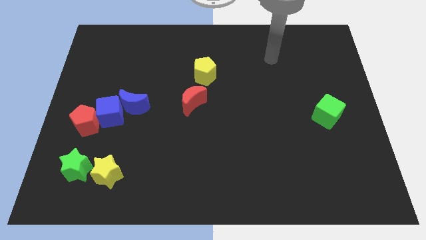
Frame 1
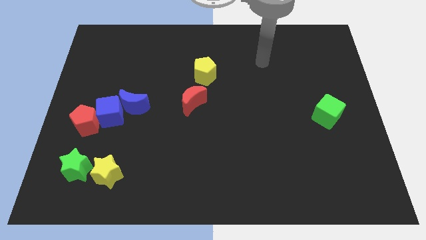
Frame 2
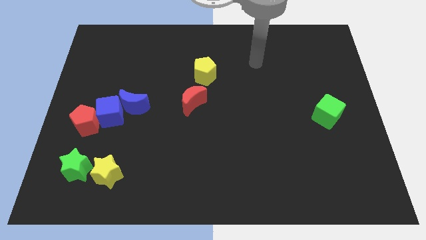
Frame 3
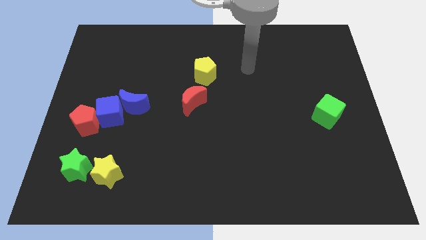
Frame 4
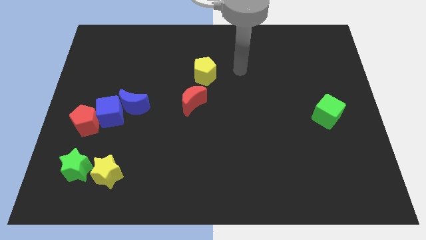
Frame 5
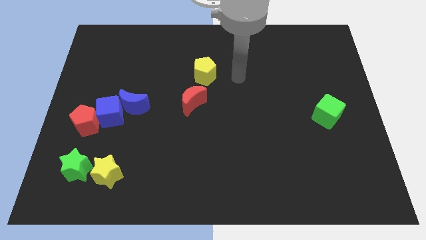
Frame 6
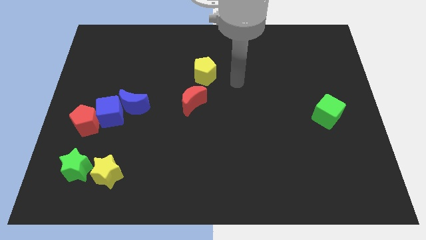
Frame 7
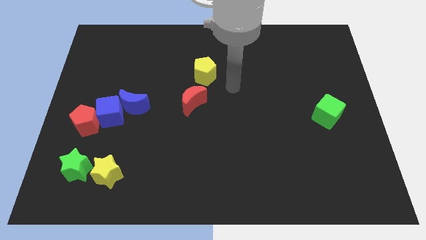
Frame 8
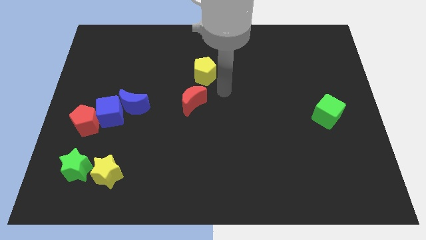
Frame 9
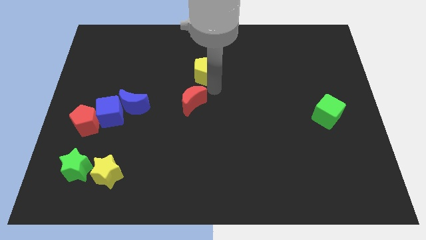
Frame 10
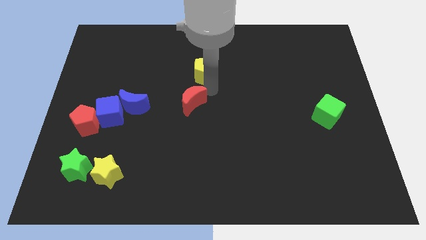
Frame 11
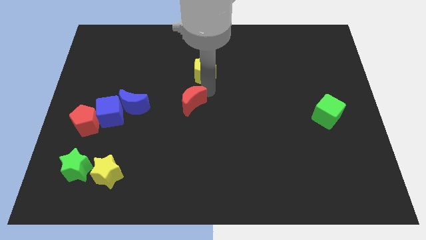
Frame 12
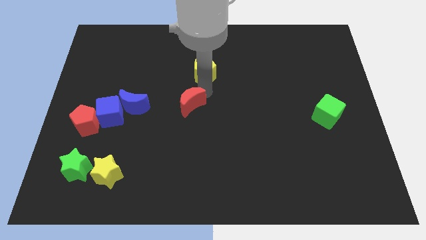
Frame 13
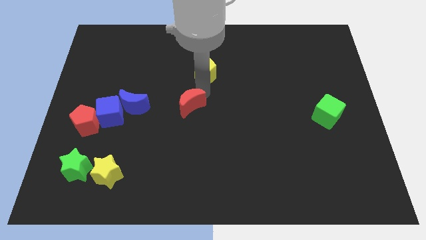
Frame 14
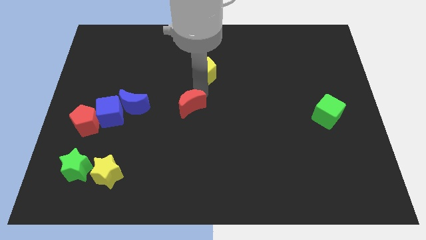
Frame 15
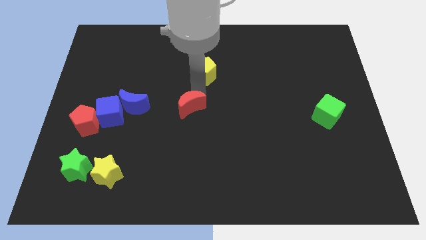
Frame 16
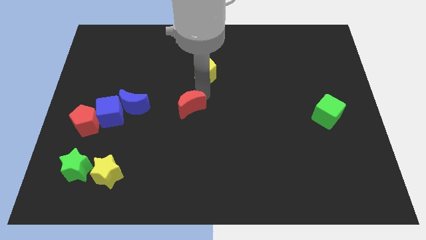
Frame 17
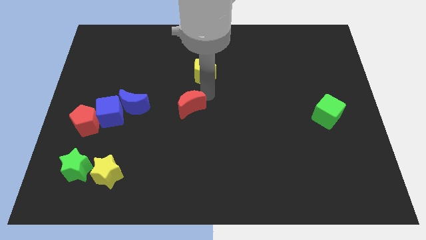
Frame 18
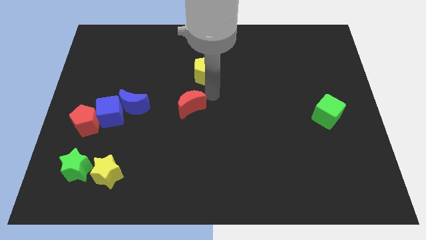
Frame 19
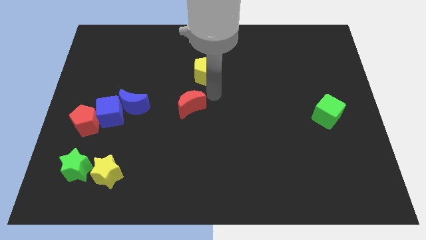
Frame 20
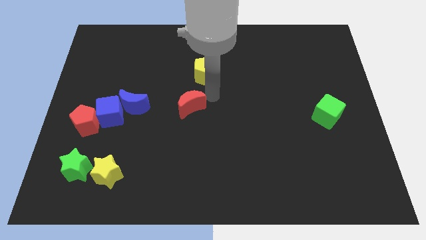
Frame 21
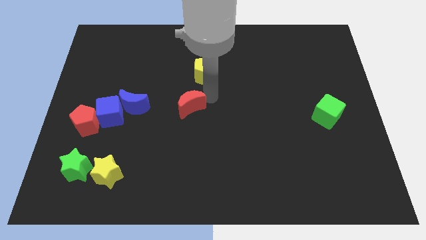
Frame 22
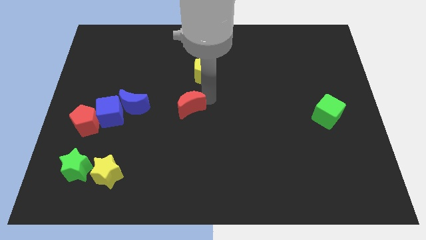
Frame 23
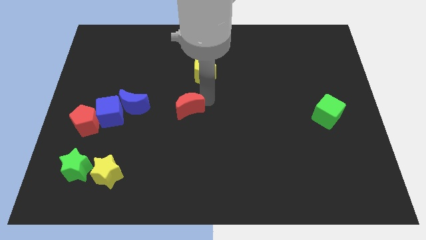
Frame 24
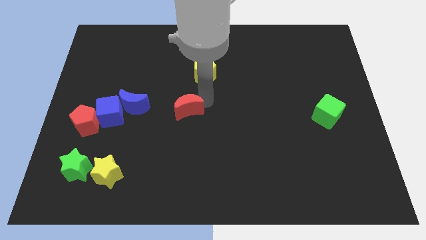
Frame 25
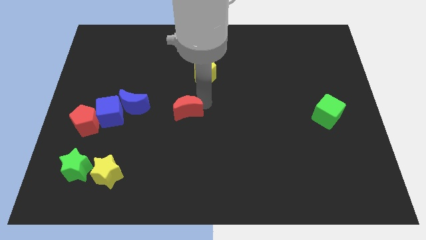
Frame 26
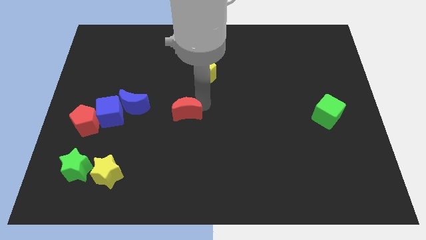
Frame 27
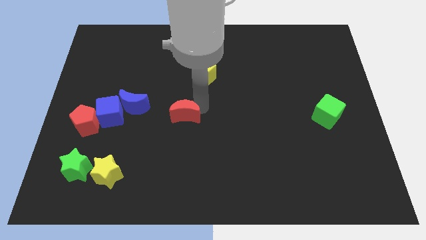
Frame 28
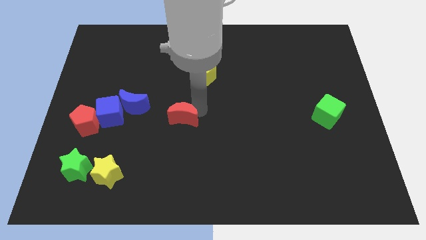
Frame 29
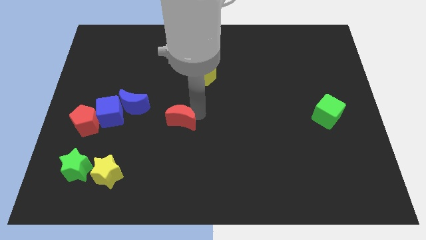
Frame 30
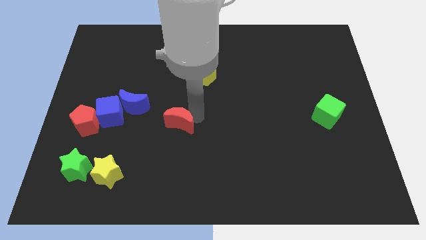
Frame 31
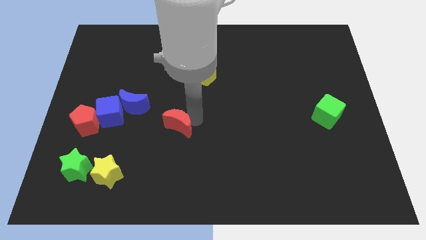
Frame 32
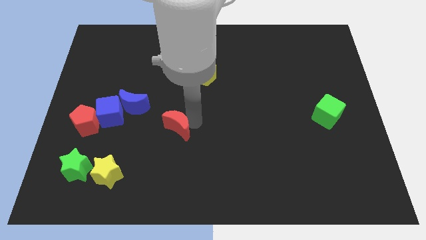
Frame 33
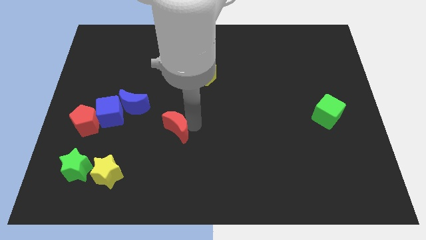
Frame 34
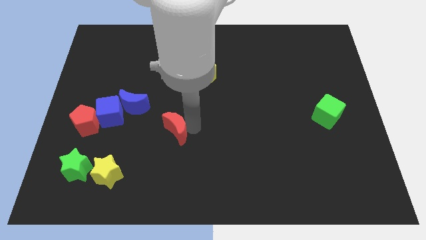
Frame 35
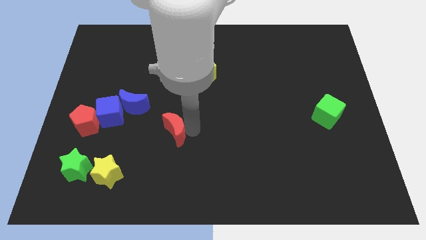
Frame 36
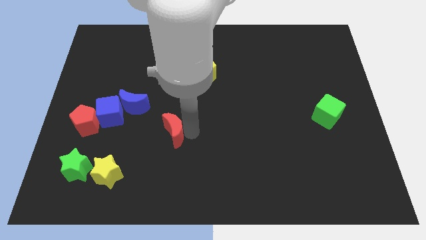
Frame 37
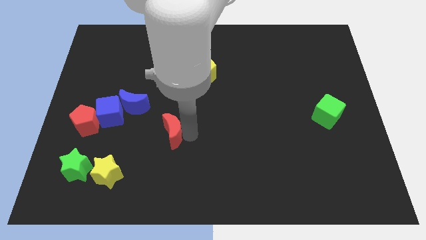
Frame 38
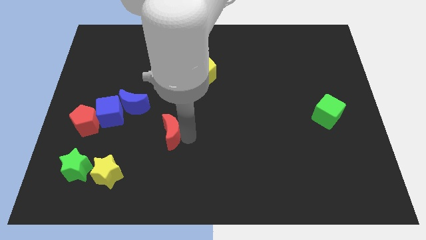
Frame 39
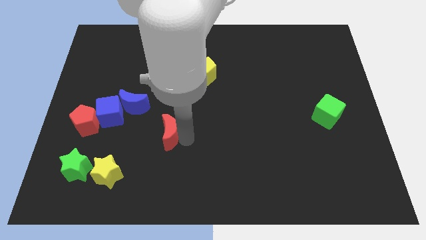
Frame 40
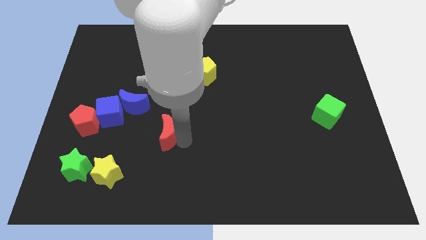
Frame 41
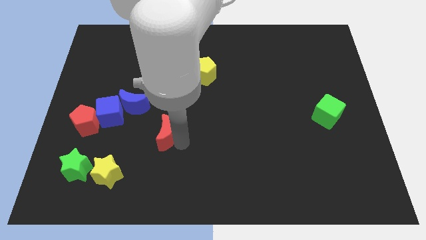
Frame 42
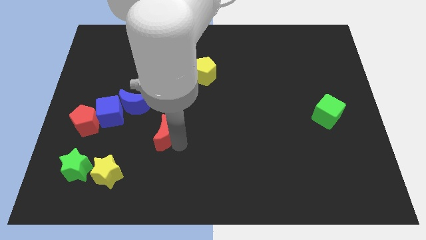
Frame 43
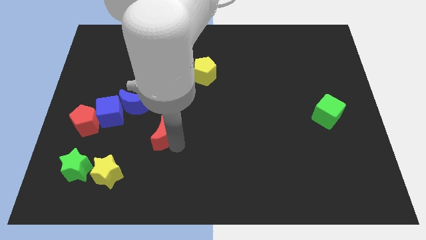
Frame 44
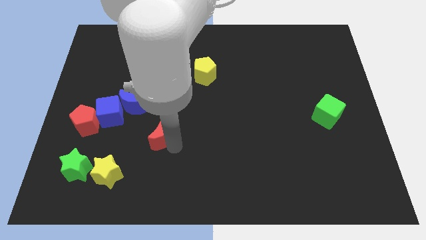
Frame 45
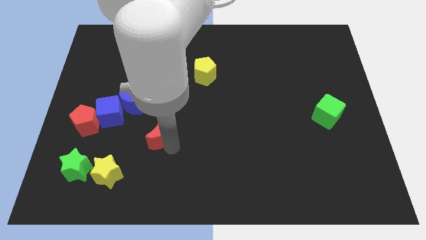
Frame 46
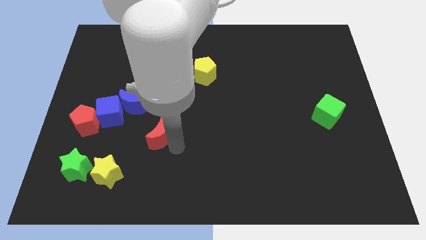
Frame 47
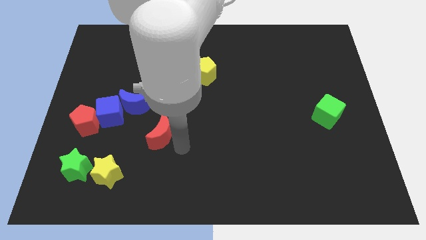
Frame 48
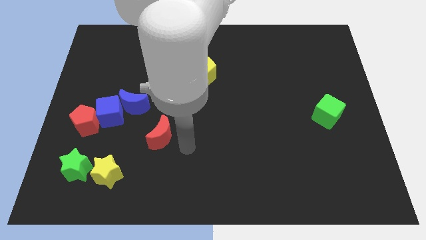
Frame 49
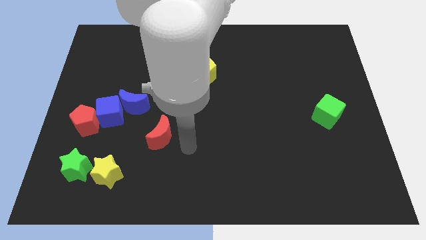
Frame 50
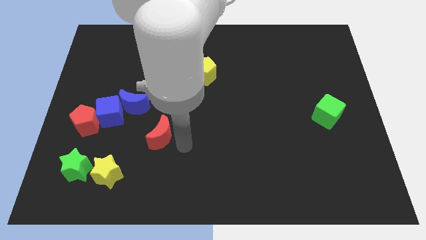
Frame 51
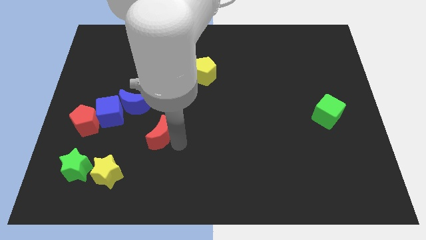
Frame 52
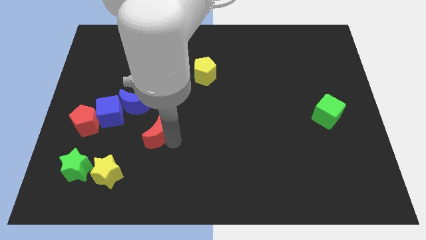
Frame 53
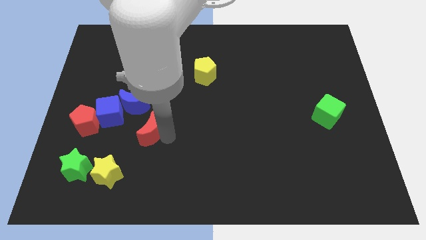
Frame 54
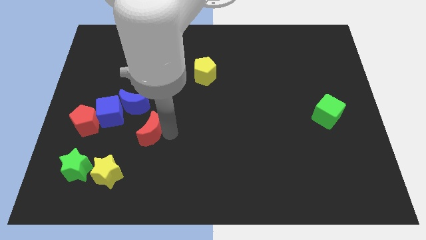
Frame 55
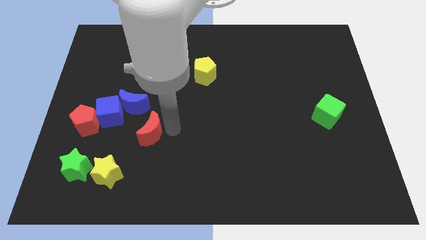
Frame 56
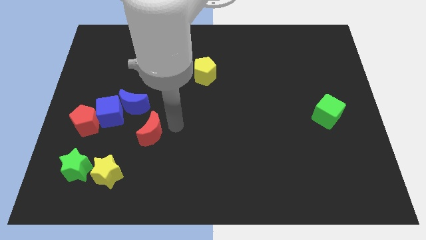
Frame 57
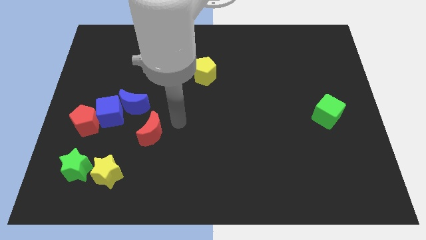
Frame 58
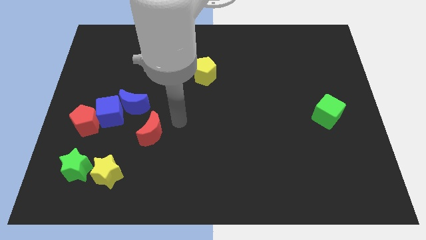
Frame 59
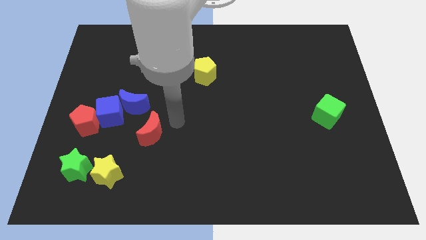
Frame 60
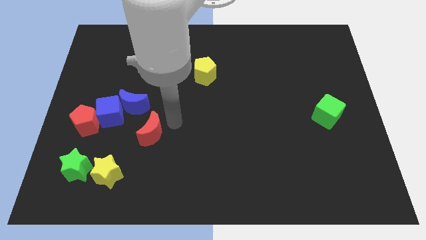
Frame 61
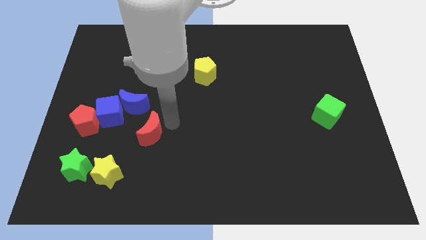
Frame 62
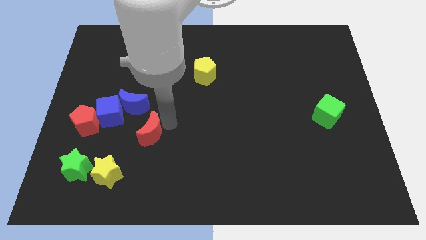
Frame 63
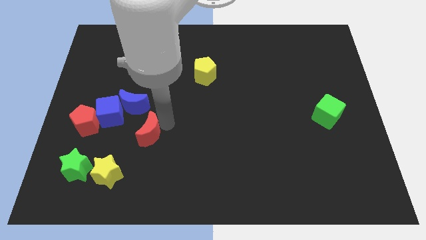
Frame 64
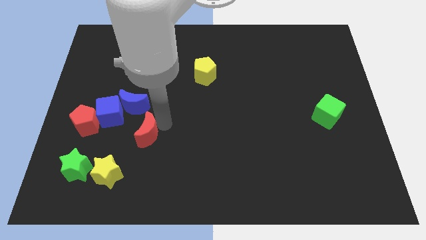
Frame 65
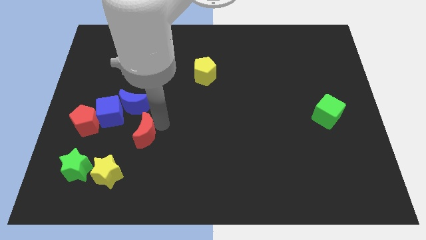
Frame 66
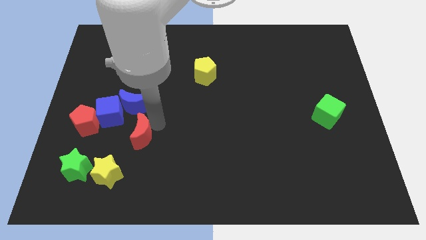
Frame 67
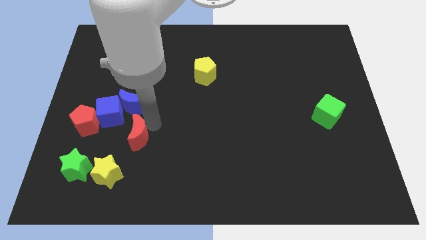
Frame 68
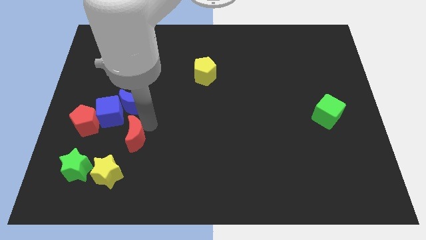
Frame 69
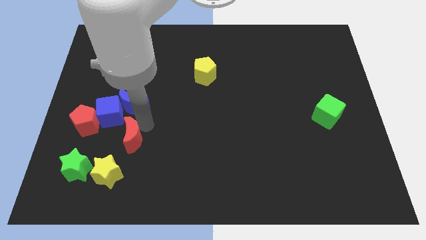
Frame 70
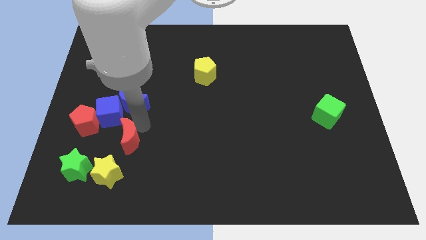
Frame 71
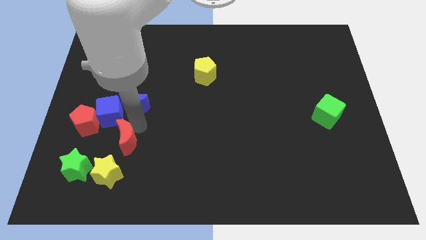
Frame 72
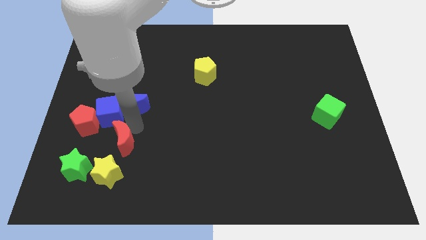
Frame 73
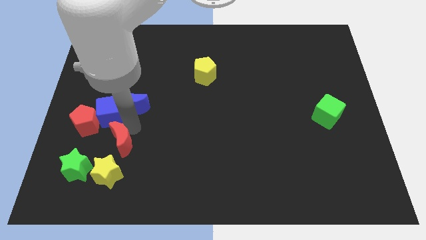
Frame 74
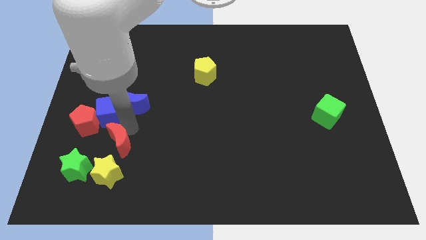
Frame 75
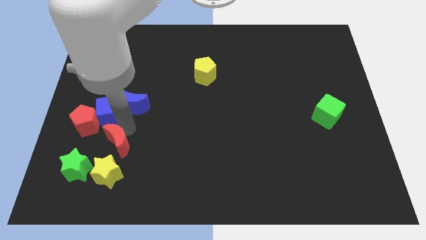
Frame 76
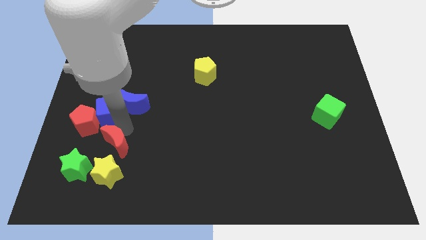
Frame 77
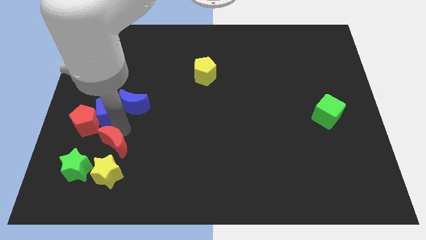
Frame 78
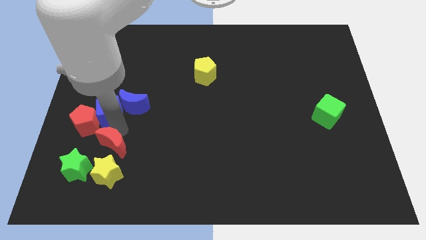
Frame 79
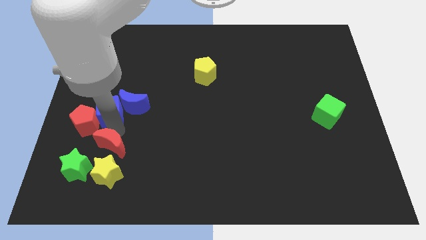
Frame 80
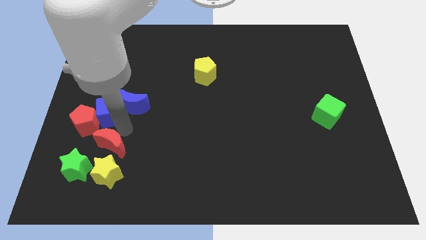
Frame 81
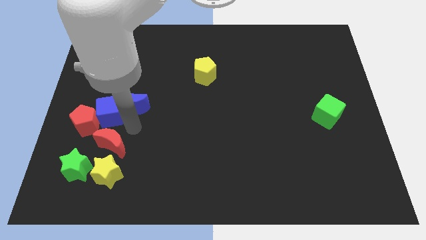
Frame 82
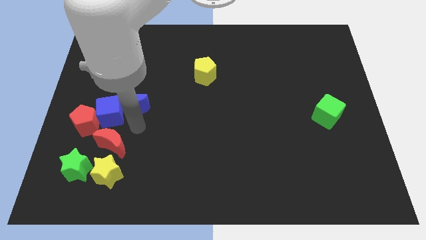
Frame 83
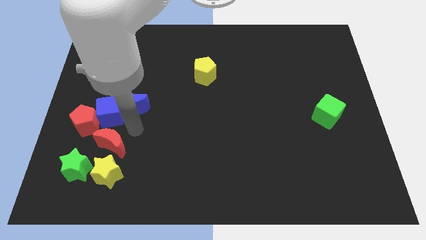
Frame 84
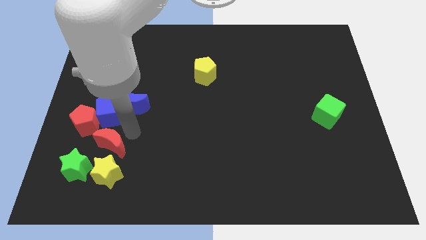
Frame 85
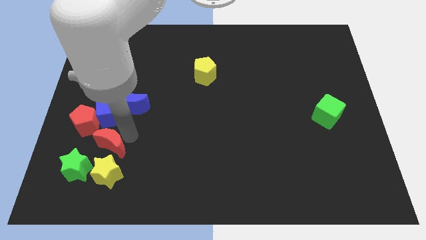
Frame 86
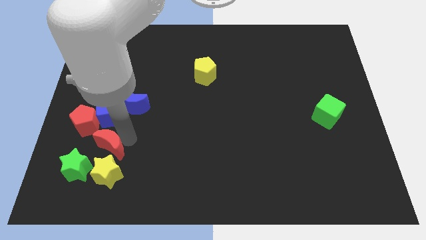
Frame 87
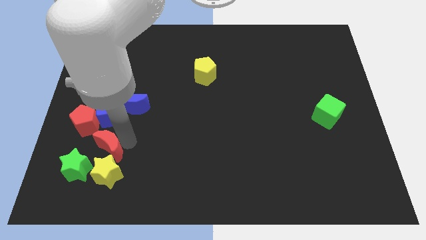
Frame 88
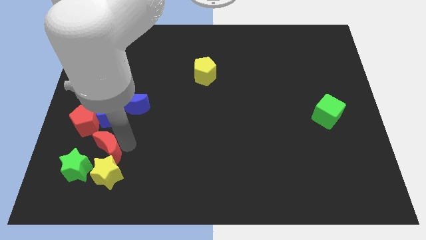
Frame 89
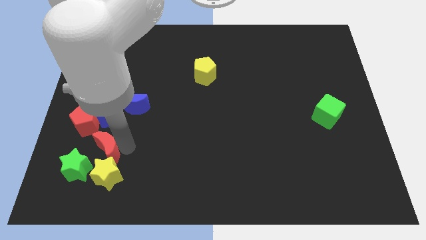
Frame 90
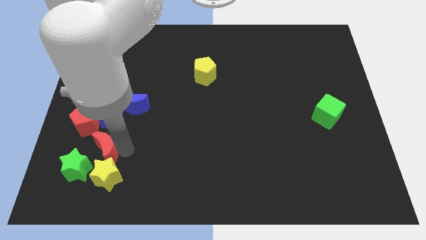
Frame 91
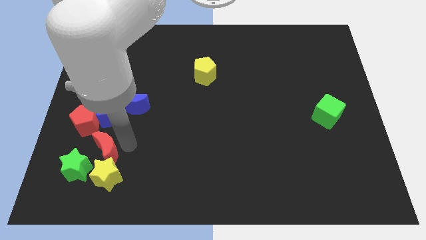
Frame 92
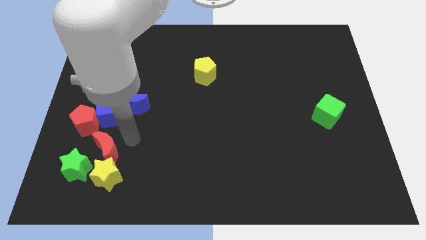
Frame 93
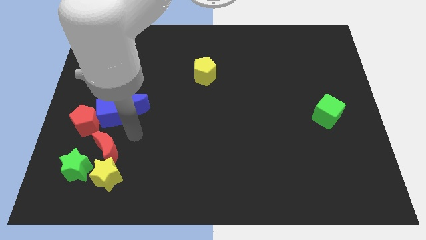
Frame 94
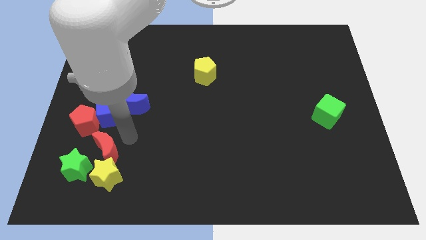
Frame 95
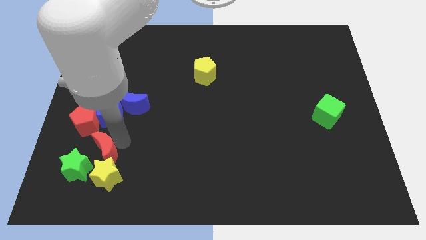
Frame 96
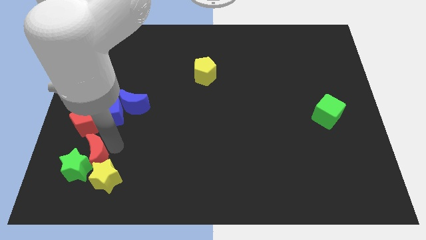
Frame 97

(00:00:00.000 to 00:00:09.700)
put the red moon close to the green star
